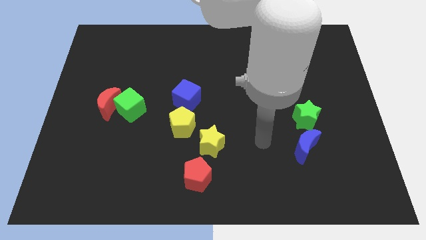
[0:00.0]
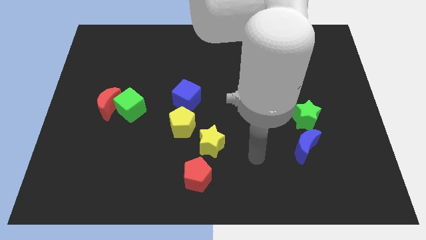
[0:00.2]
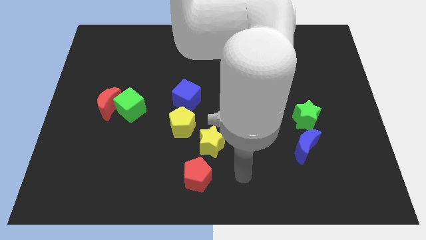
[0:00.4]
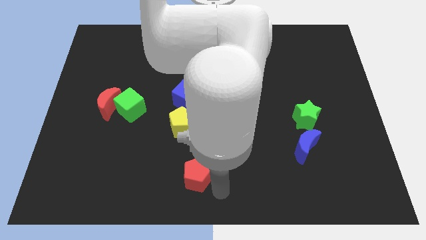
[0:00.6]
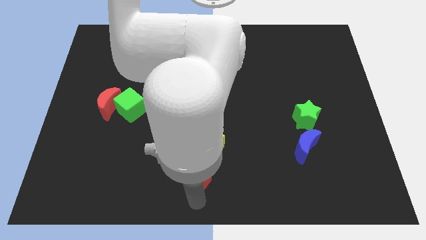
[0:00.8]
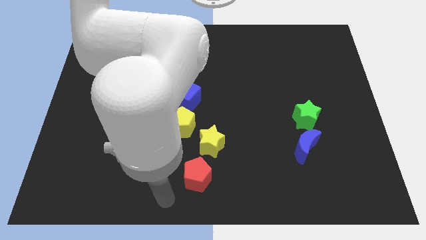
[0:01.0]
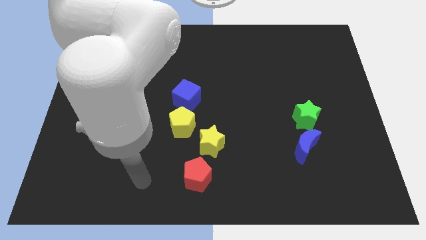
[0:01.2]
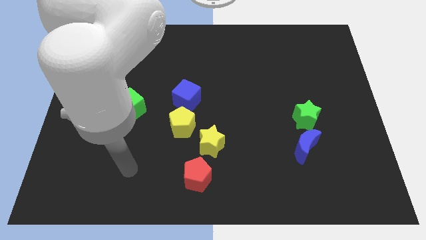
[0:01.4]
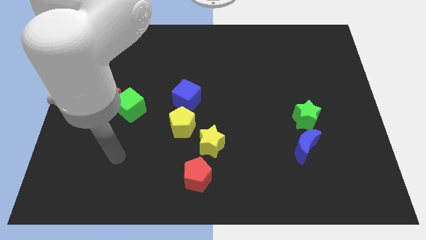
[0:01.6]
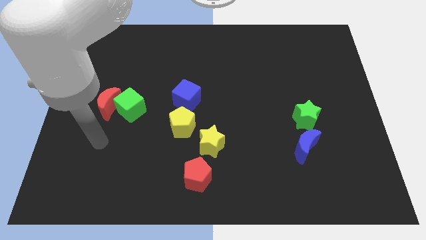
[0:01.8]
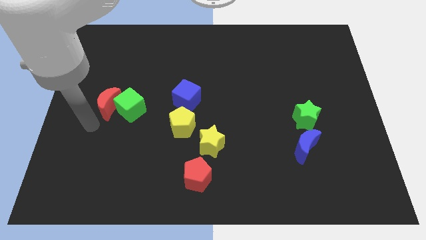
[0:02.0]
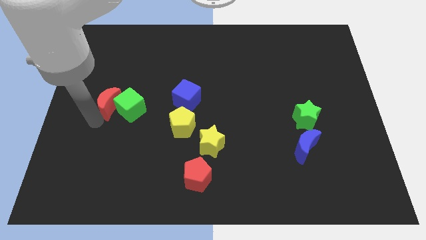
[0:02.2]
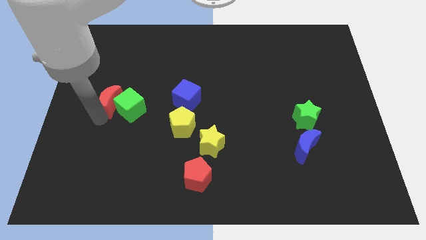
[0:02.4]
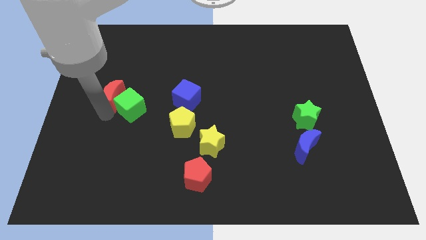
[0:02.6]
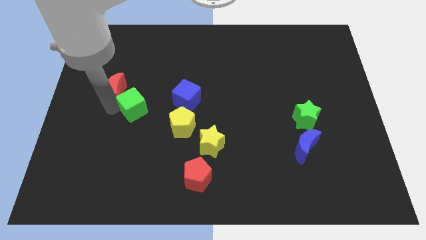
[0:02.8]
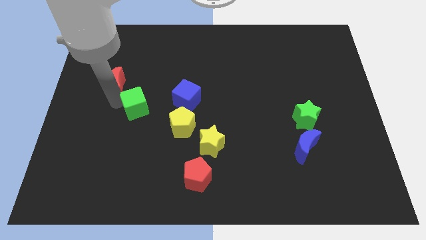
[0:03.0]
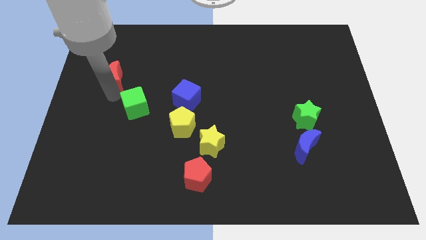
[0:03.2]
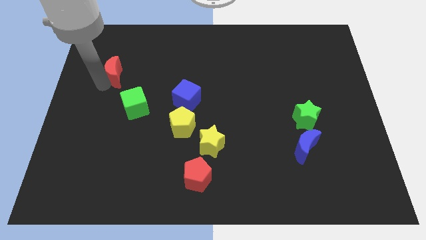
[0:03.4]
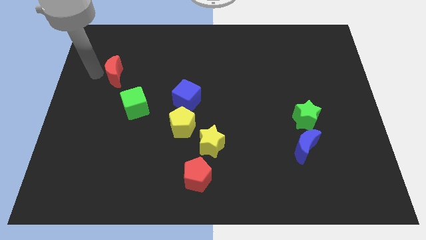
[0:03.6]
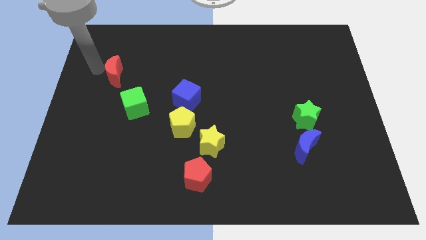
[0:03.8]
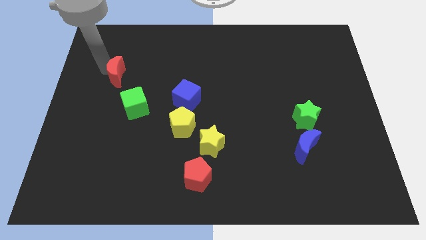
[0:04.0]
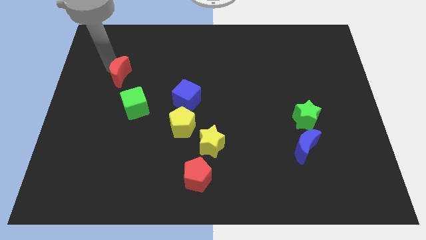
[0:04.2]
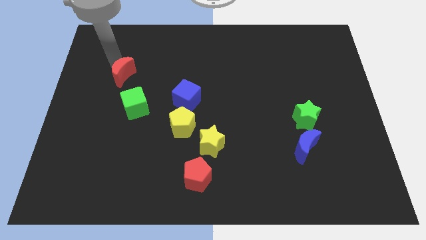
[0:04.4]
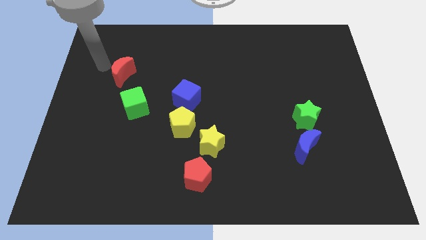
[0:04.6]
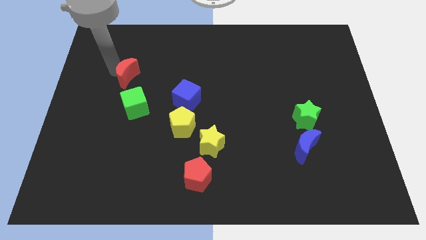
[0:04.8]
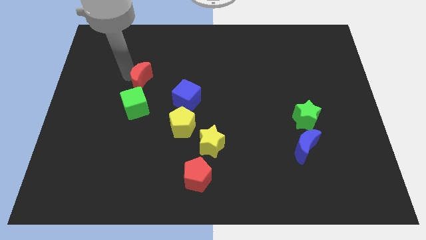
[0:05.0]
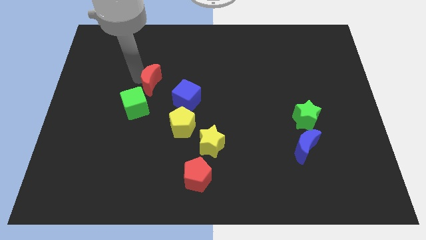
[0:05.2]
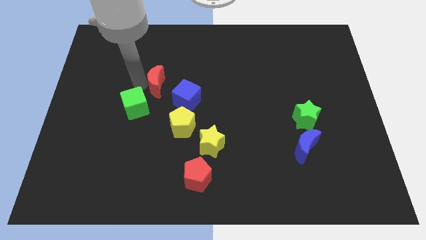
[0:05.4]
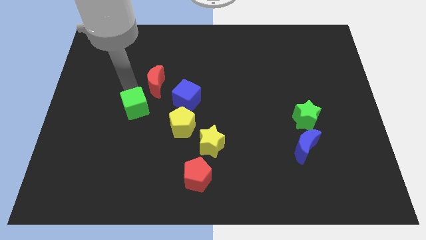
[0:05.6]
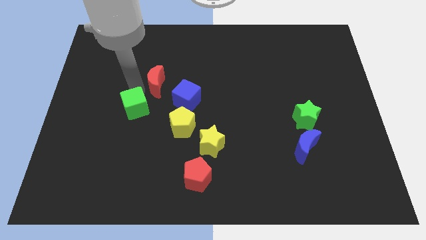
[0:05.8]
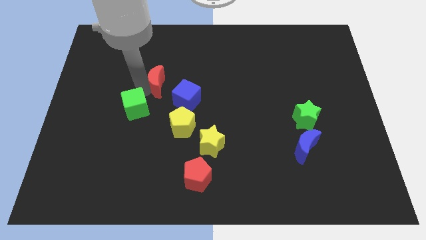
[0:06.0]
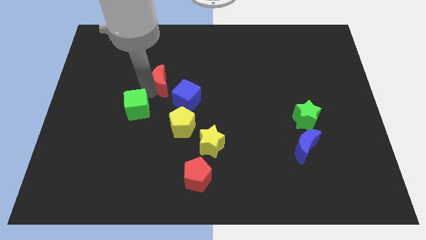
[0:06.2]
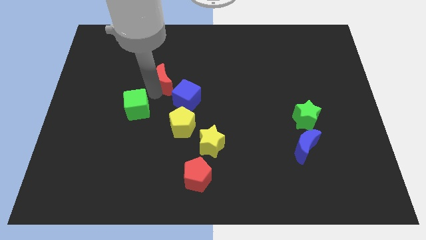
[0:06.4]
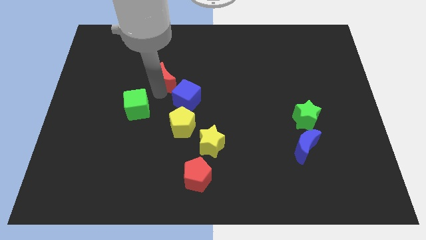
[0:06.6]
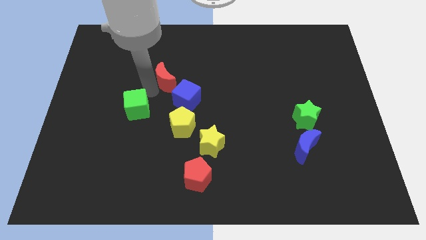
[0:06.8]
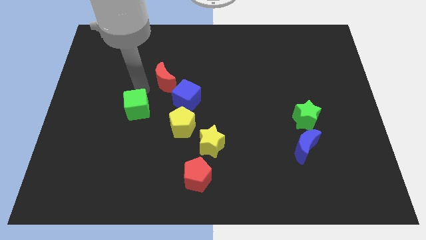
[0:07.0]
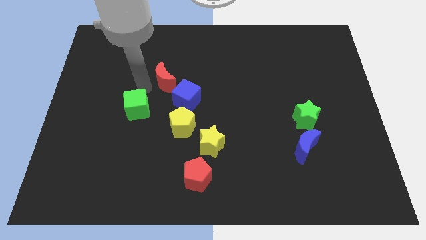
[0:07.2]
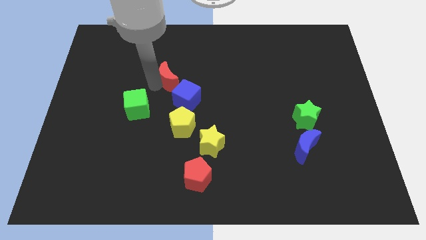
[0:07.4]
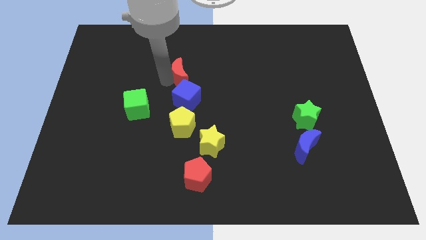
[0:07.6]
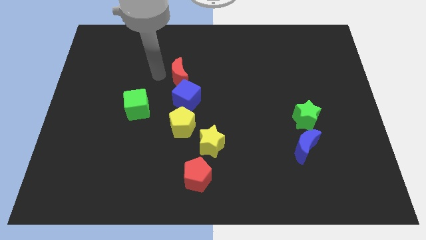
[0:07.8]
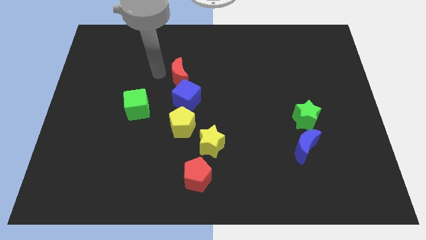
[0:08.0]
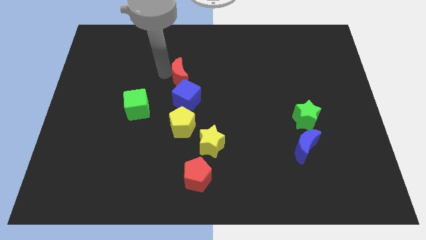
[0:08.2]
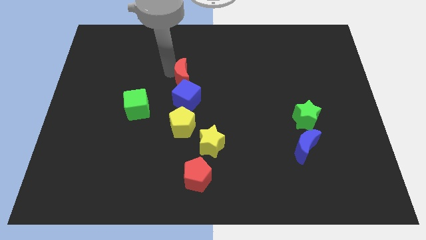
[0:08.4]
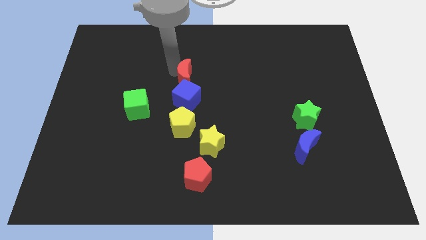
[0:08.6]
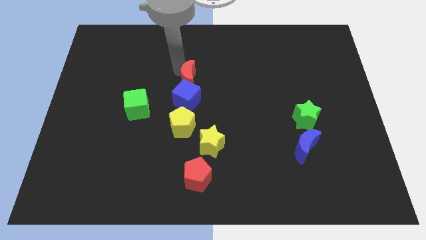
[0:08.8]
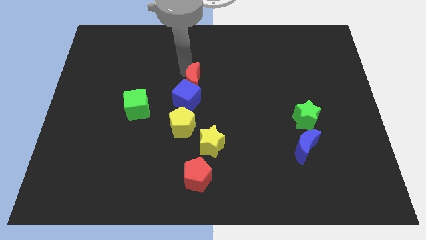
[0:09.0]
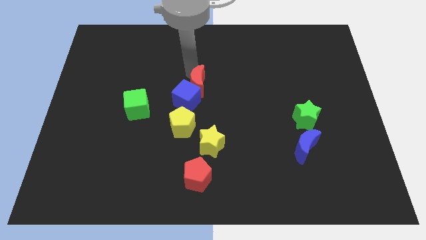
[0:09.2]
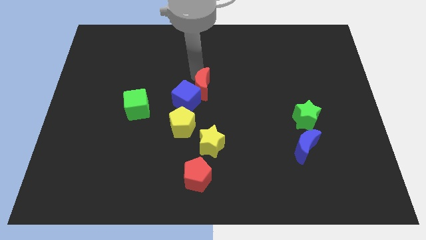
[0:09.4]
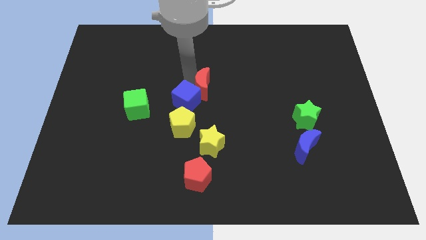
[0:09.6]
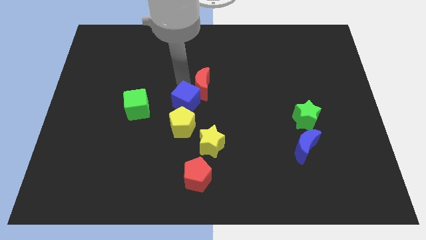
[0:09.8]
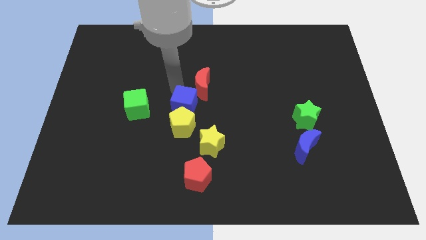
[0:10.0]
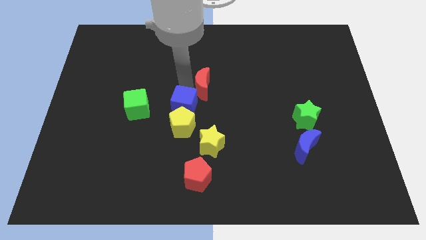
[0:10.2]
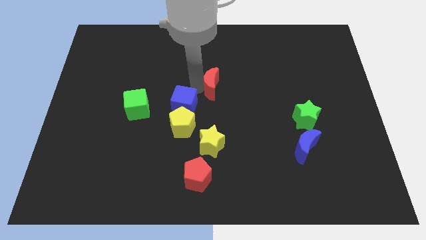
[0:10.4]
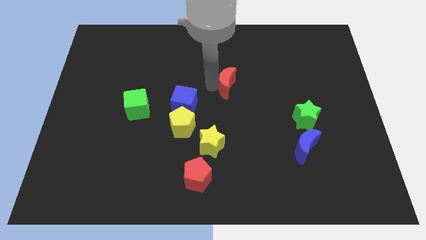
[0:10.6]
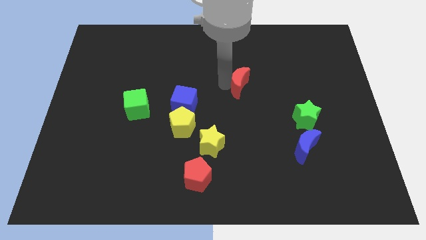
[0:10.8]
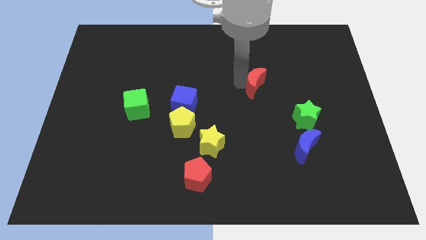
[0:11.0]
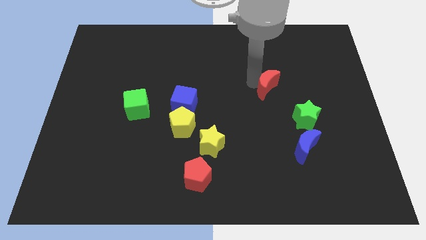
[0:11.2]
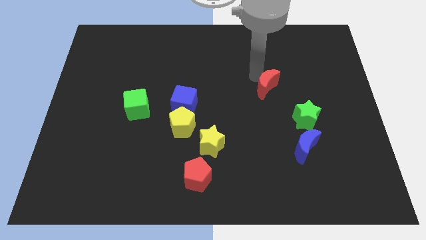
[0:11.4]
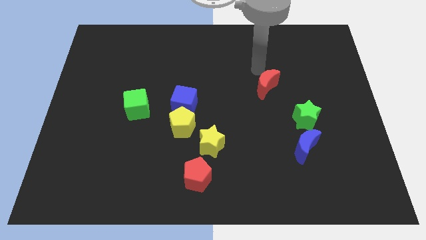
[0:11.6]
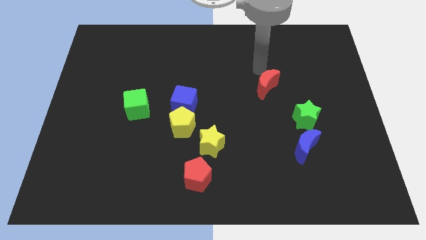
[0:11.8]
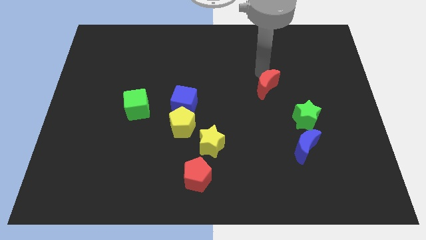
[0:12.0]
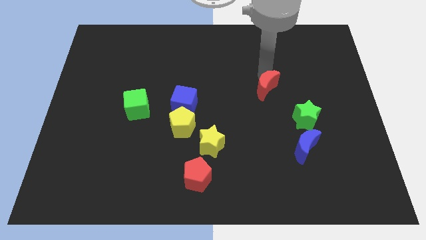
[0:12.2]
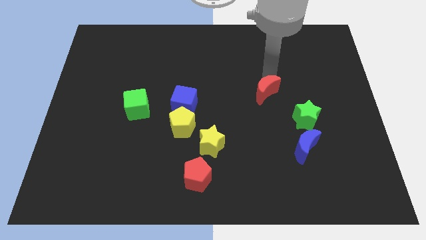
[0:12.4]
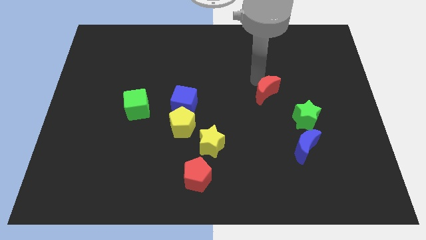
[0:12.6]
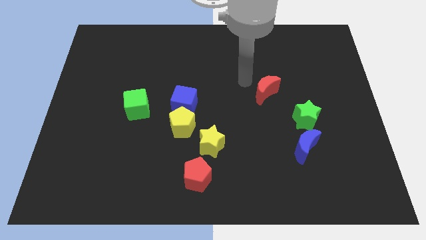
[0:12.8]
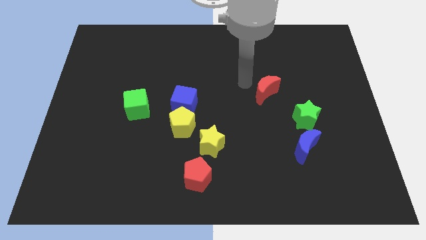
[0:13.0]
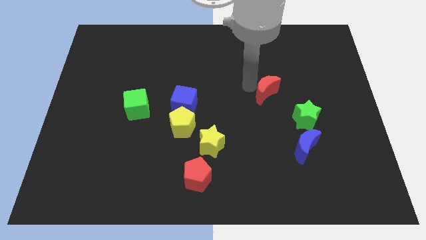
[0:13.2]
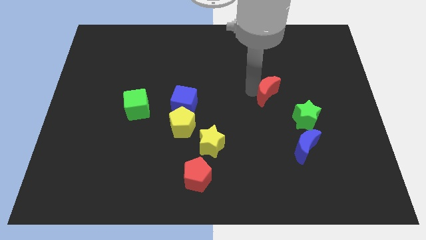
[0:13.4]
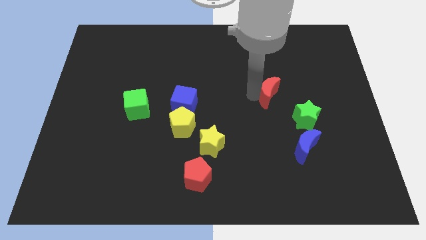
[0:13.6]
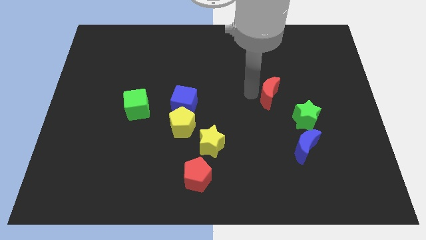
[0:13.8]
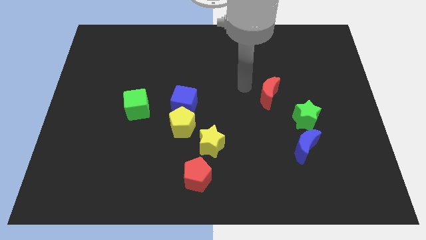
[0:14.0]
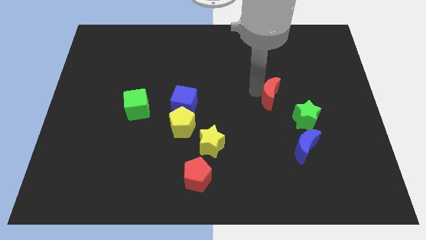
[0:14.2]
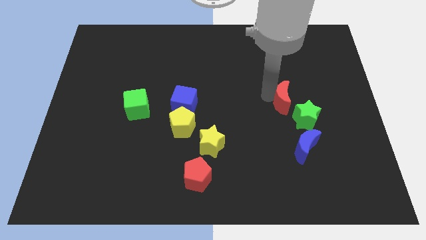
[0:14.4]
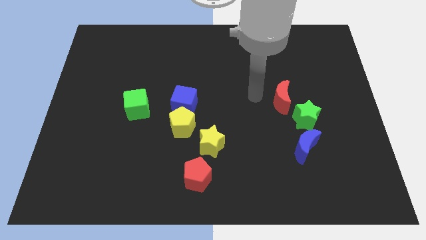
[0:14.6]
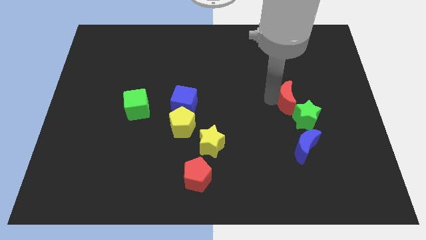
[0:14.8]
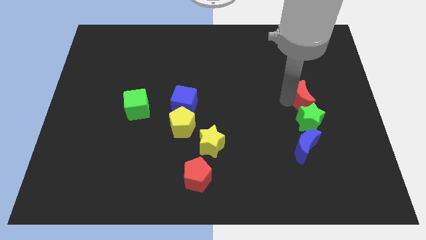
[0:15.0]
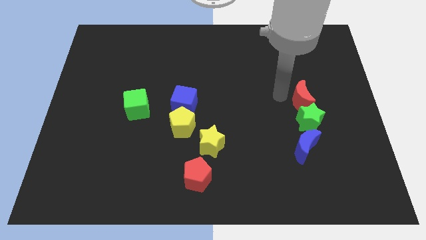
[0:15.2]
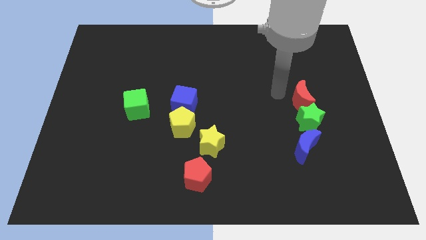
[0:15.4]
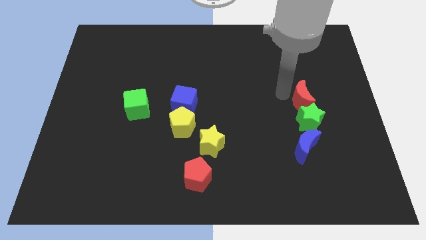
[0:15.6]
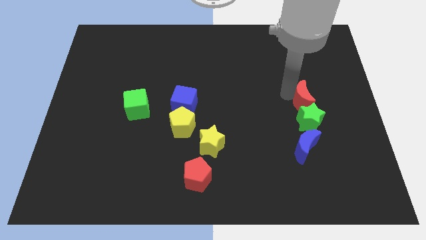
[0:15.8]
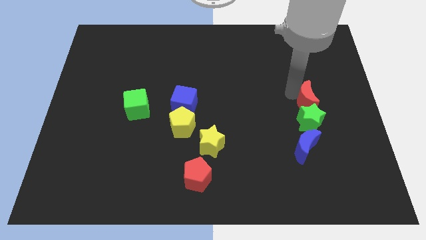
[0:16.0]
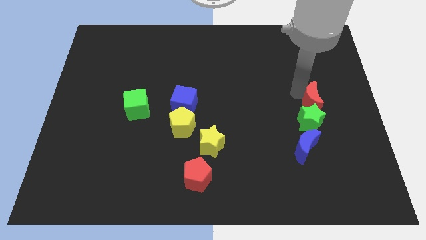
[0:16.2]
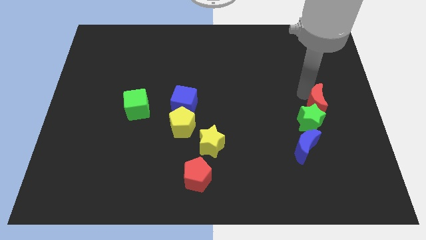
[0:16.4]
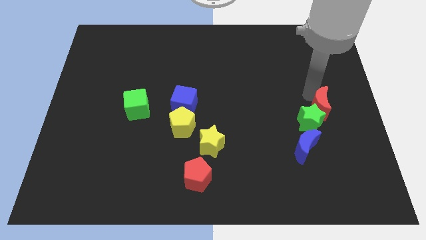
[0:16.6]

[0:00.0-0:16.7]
move the red moon to the right side of the board
